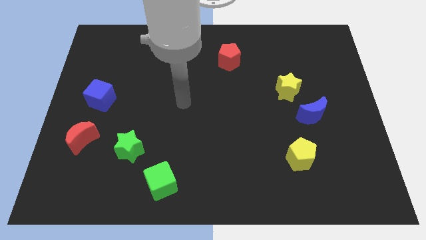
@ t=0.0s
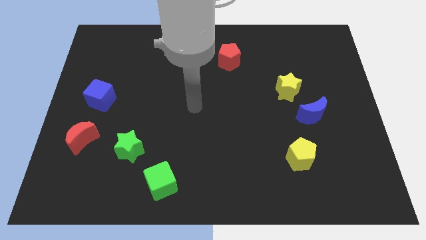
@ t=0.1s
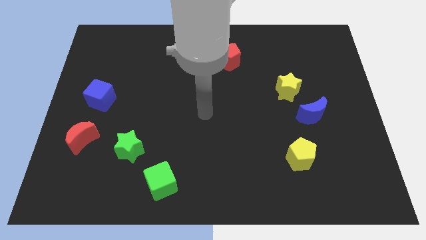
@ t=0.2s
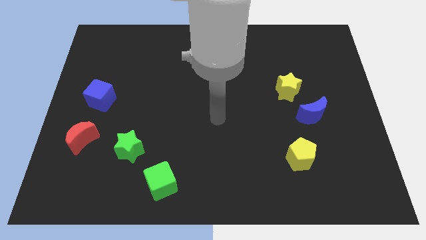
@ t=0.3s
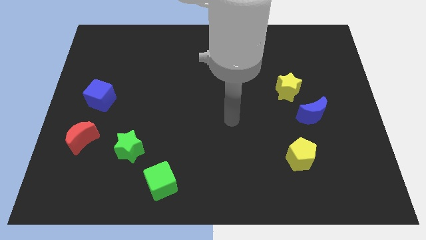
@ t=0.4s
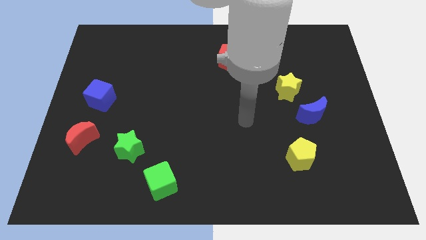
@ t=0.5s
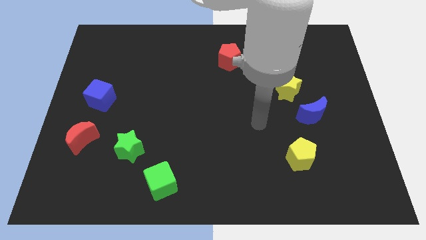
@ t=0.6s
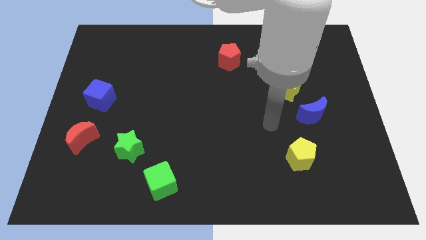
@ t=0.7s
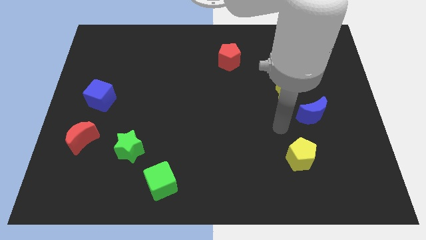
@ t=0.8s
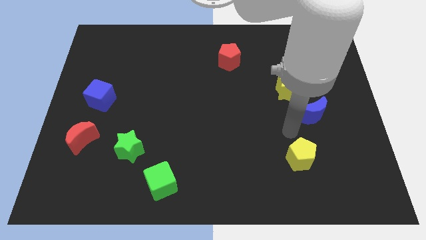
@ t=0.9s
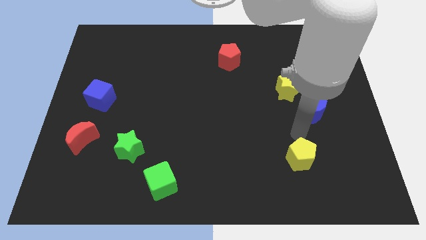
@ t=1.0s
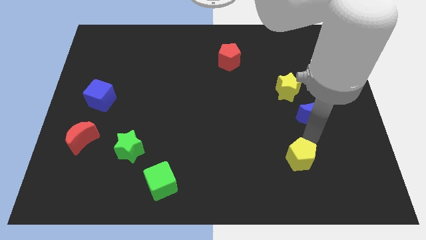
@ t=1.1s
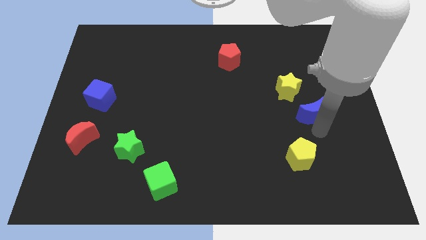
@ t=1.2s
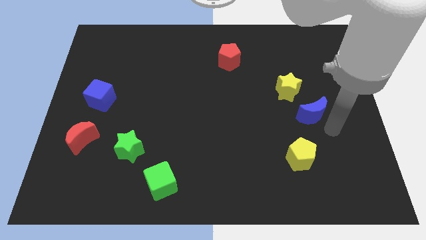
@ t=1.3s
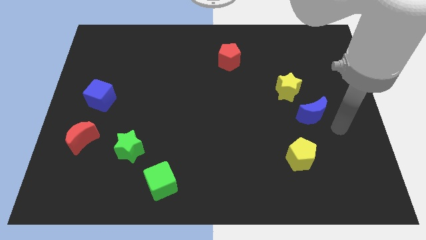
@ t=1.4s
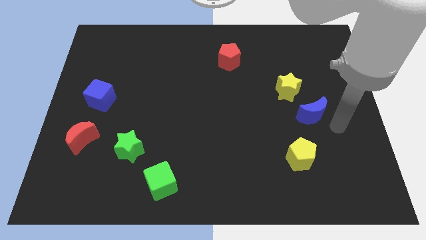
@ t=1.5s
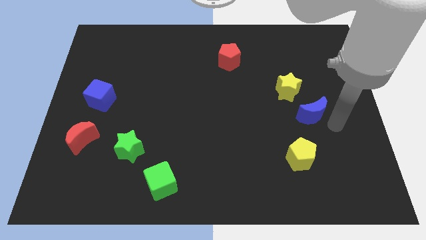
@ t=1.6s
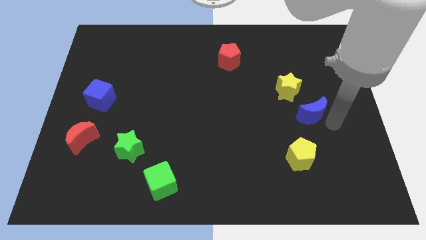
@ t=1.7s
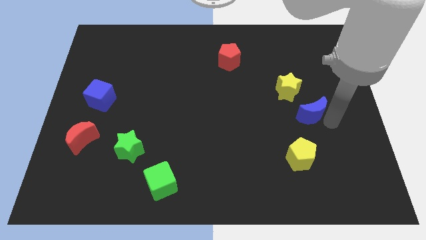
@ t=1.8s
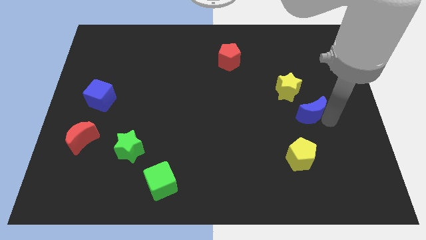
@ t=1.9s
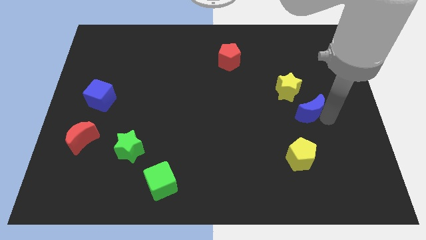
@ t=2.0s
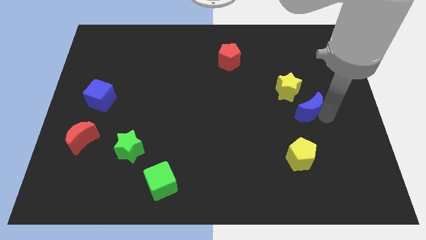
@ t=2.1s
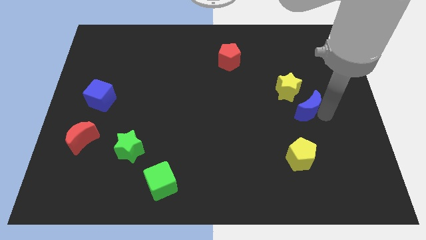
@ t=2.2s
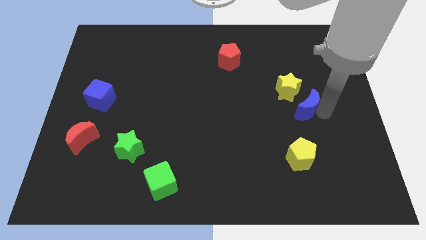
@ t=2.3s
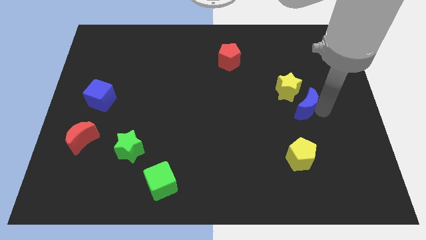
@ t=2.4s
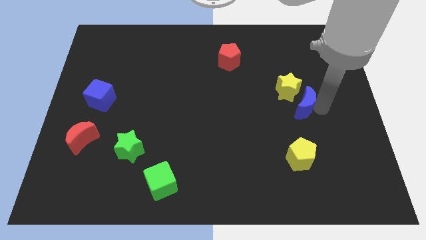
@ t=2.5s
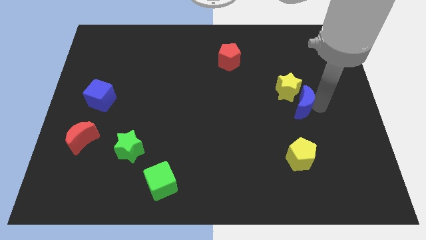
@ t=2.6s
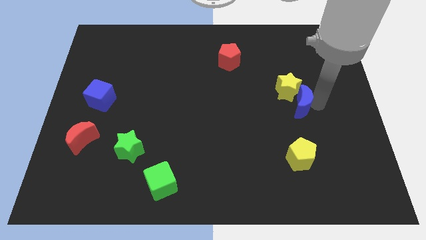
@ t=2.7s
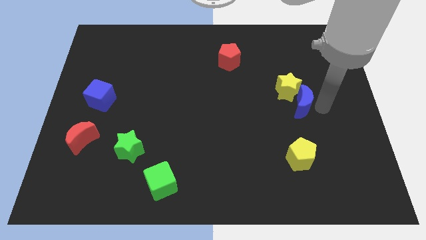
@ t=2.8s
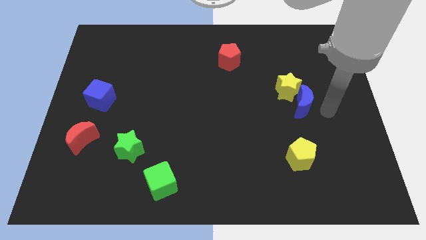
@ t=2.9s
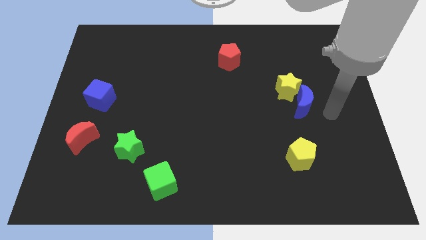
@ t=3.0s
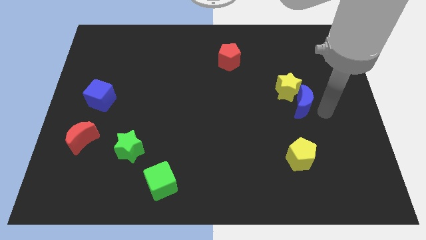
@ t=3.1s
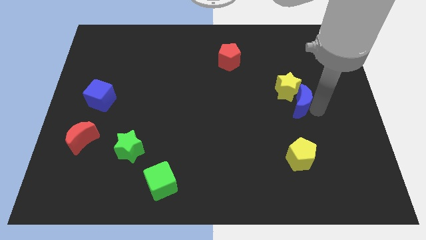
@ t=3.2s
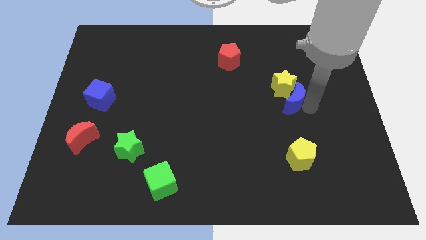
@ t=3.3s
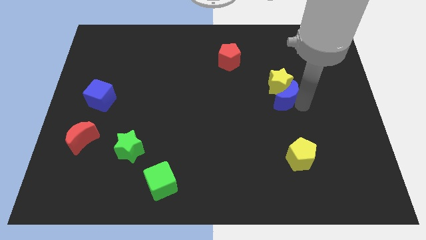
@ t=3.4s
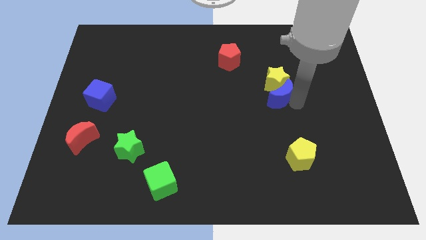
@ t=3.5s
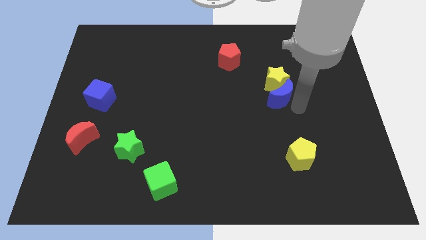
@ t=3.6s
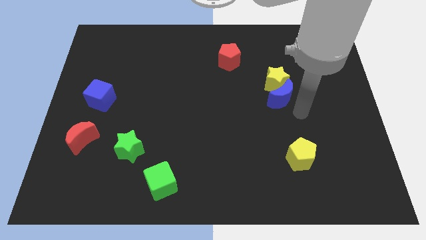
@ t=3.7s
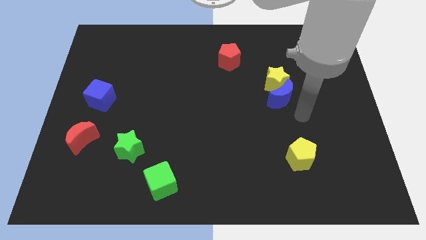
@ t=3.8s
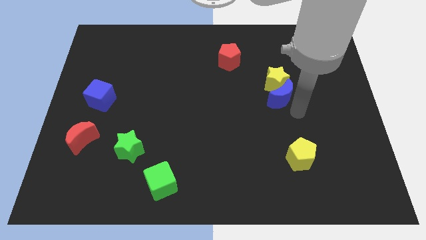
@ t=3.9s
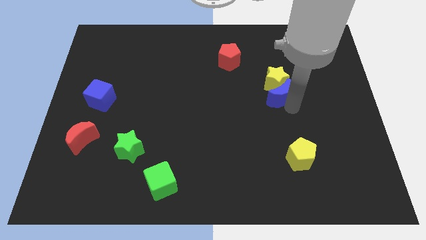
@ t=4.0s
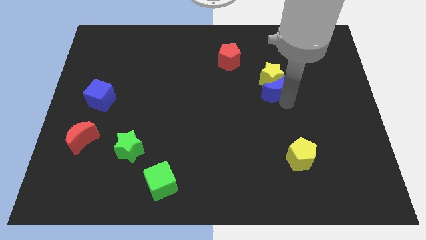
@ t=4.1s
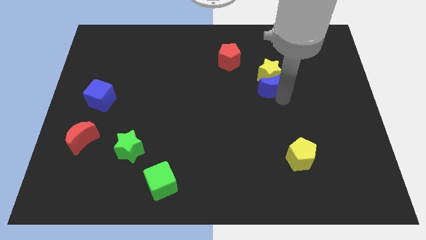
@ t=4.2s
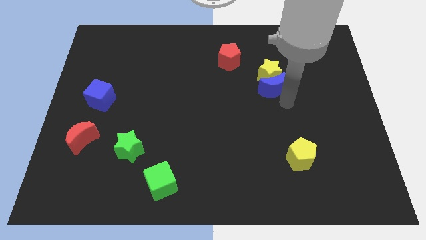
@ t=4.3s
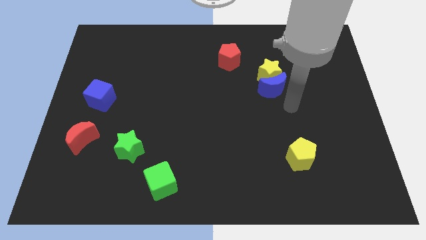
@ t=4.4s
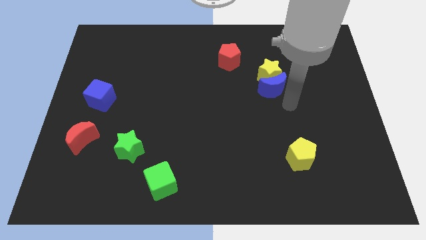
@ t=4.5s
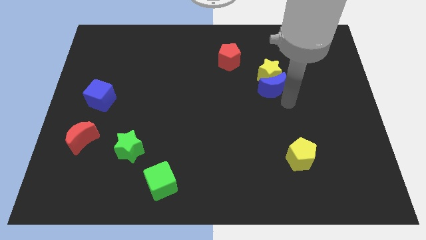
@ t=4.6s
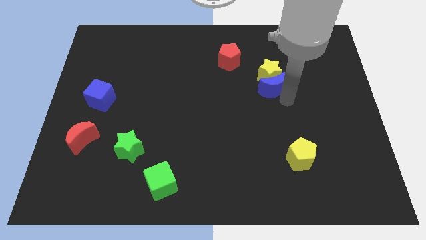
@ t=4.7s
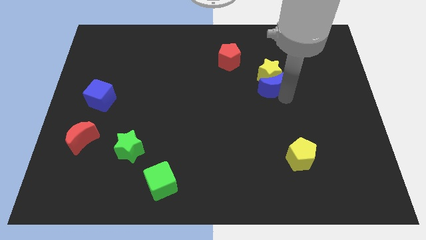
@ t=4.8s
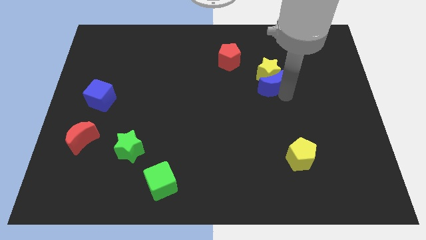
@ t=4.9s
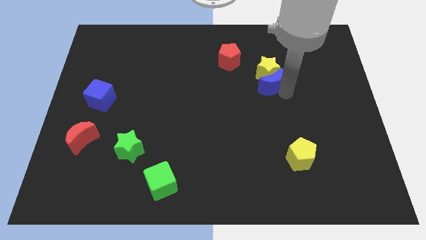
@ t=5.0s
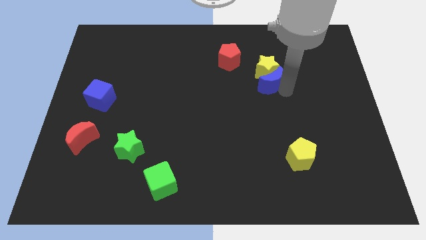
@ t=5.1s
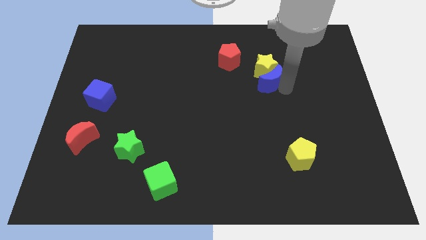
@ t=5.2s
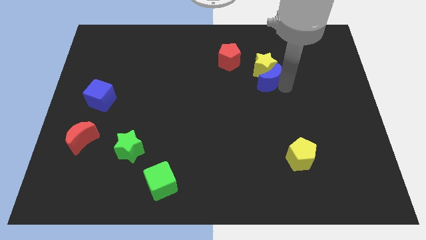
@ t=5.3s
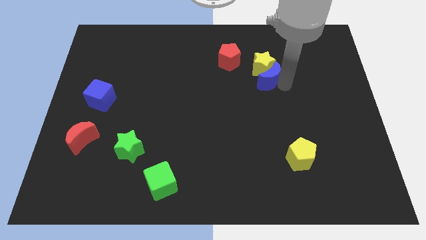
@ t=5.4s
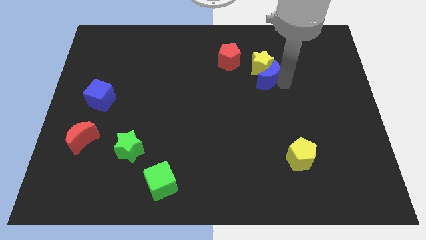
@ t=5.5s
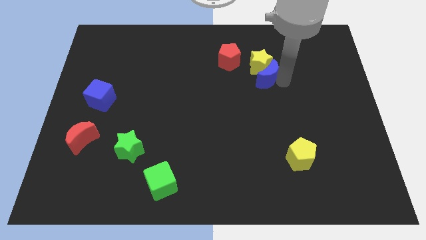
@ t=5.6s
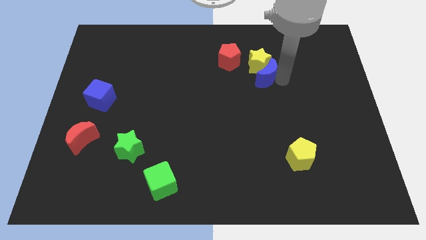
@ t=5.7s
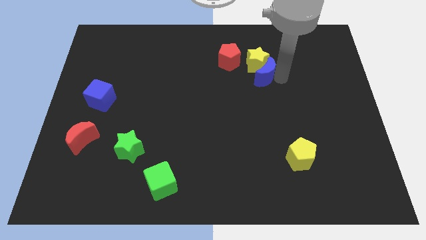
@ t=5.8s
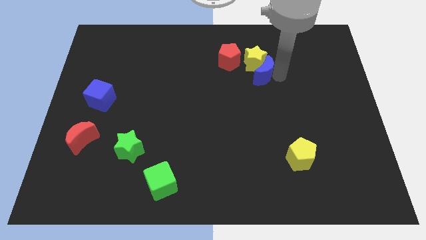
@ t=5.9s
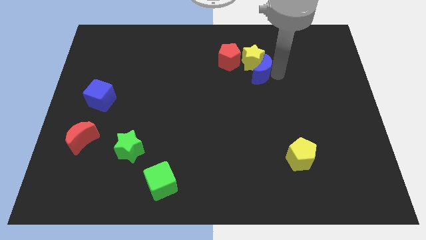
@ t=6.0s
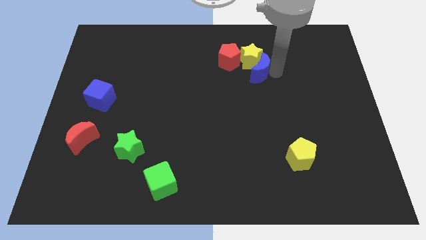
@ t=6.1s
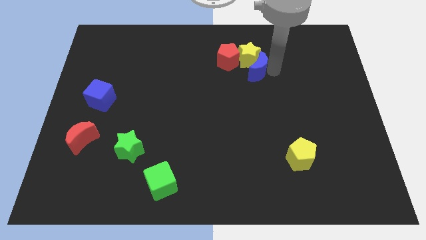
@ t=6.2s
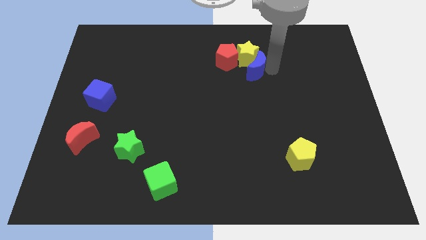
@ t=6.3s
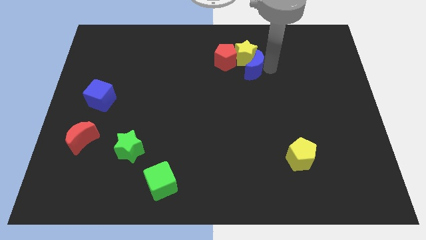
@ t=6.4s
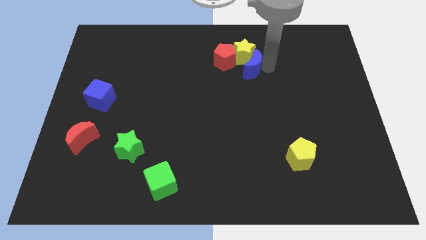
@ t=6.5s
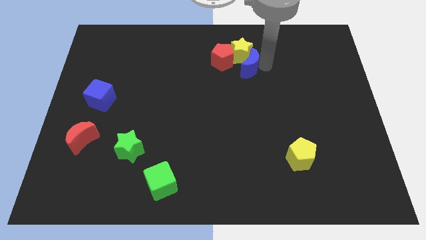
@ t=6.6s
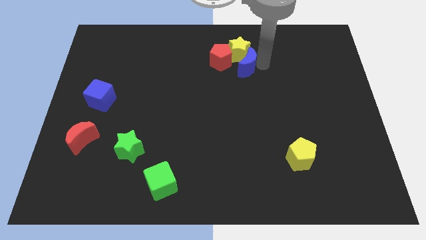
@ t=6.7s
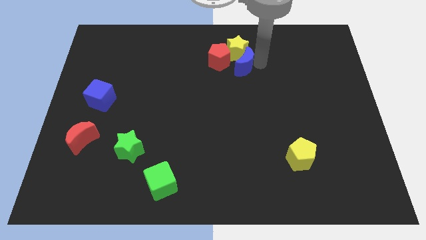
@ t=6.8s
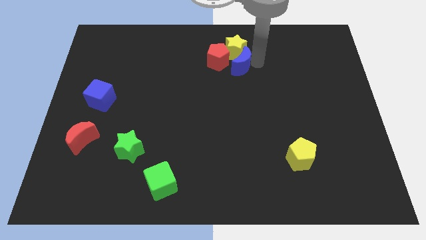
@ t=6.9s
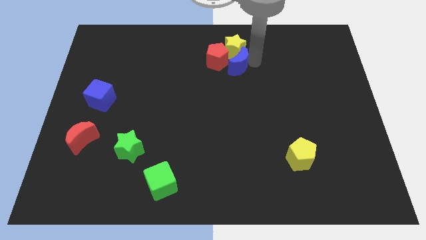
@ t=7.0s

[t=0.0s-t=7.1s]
put the blue moon next to the red pentagon
